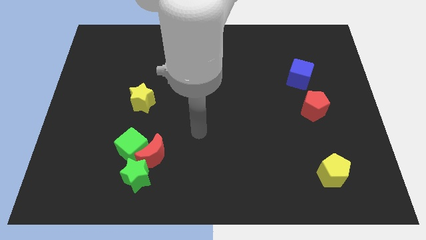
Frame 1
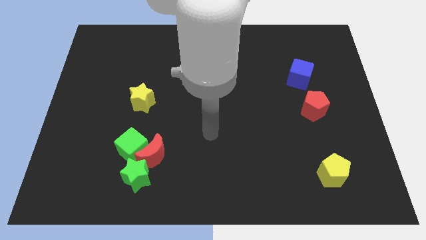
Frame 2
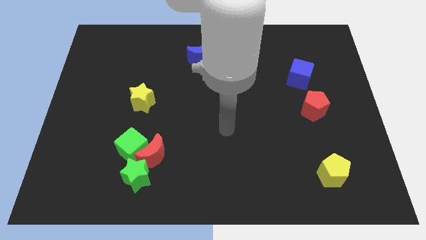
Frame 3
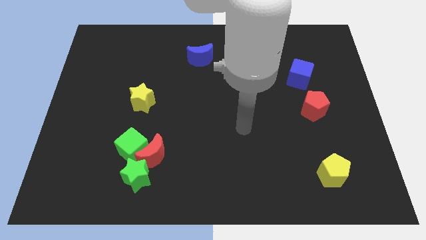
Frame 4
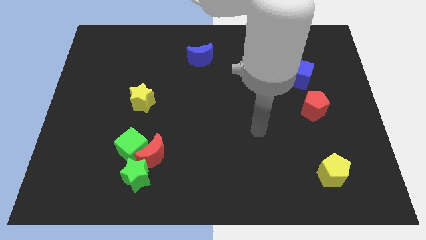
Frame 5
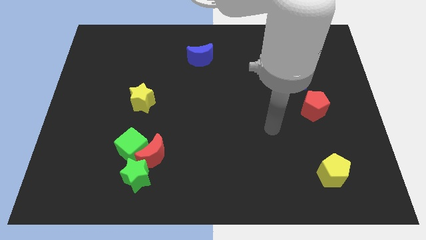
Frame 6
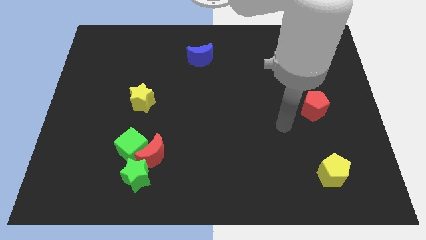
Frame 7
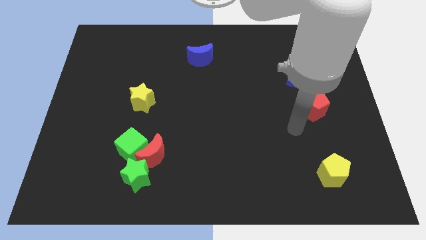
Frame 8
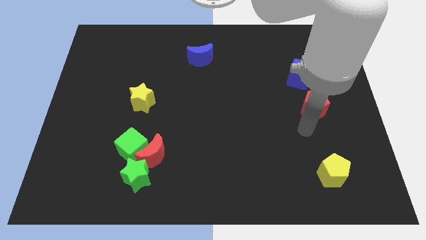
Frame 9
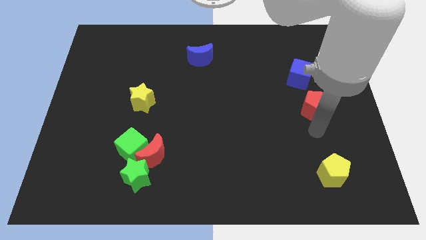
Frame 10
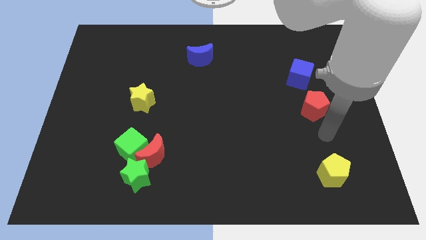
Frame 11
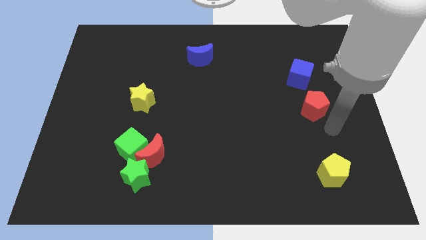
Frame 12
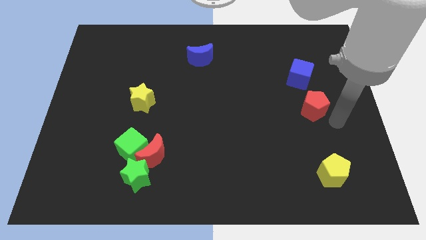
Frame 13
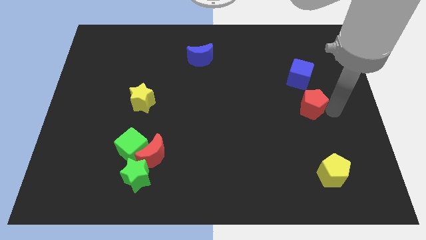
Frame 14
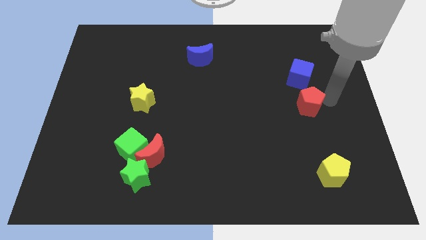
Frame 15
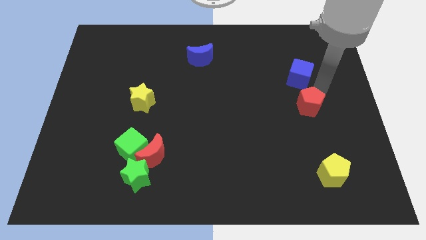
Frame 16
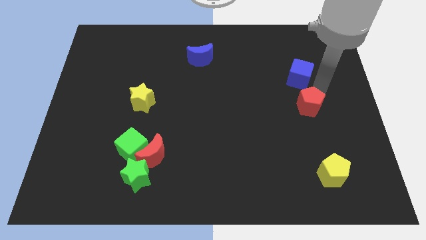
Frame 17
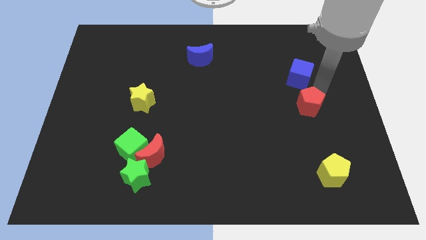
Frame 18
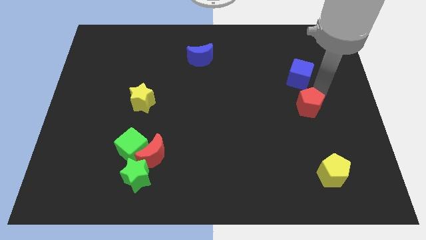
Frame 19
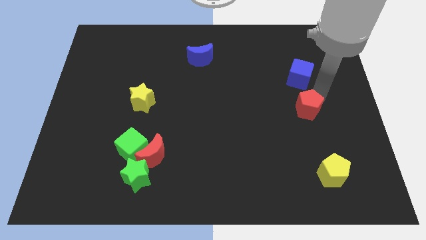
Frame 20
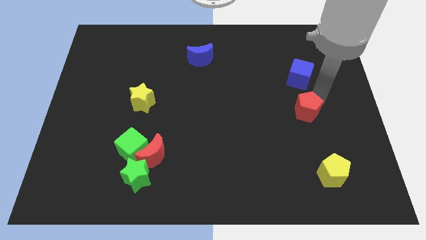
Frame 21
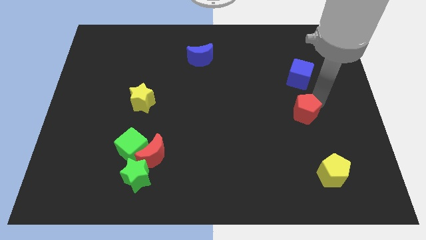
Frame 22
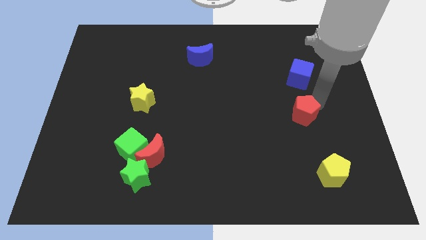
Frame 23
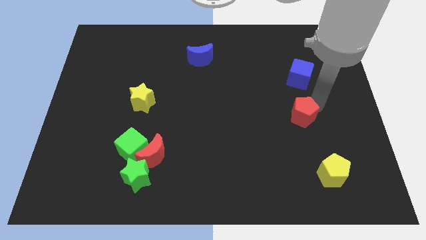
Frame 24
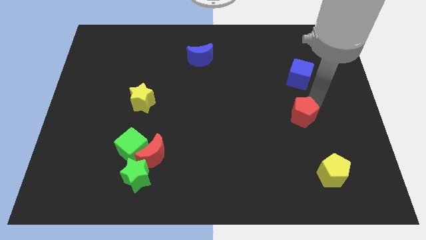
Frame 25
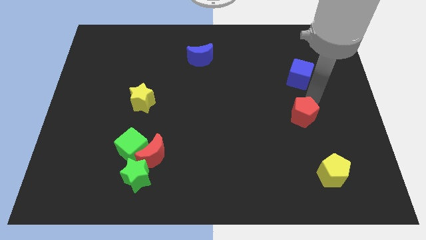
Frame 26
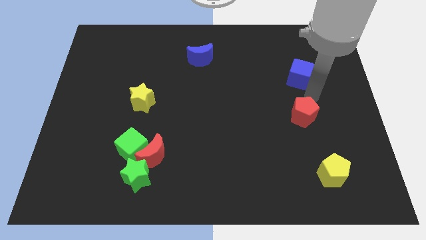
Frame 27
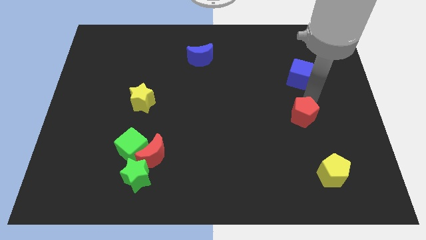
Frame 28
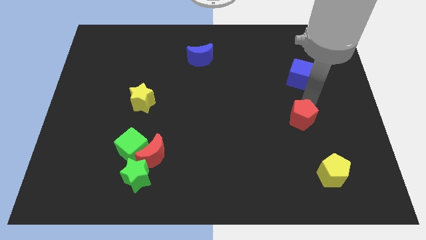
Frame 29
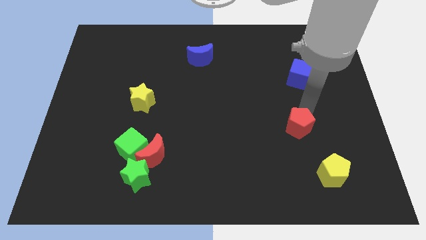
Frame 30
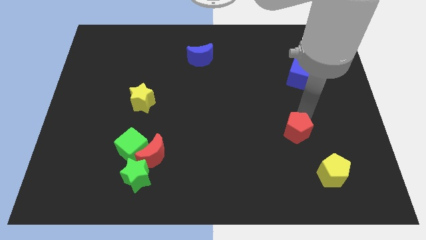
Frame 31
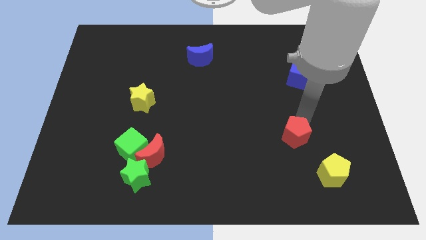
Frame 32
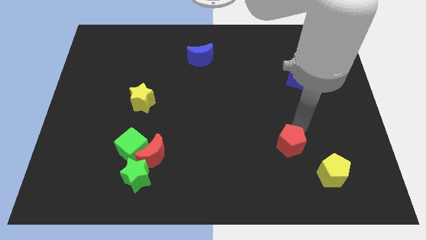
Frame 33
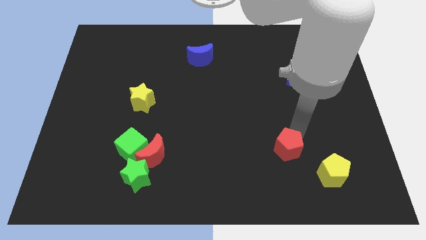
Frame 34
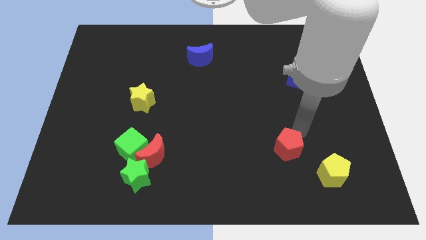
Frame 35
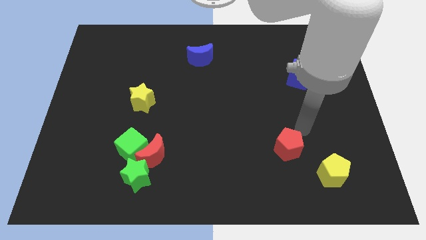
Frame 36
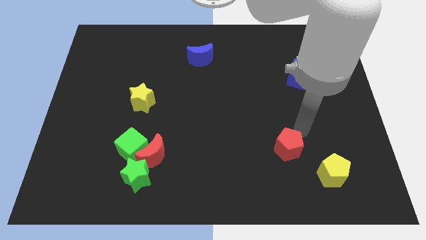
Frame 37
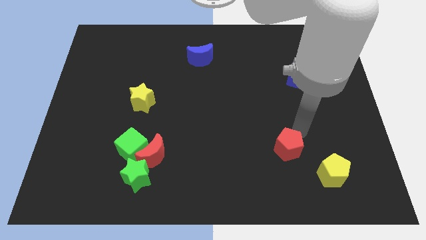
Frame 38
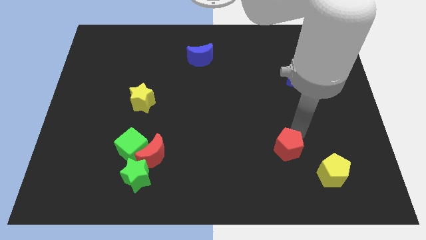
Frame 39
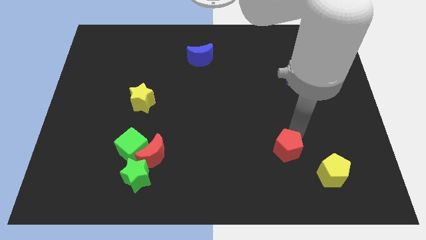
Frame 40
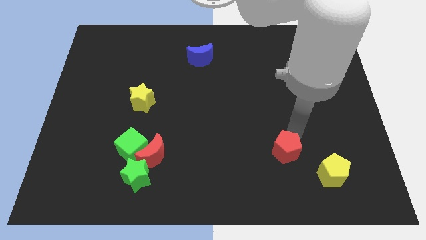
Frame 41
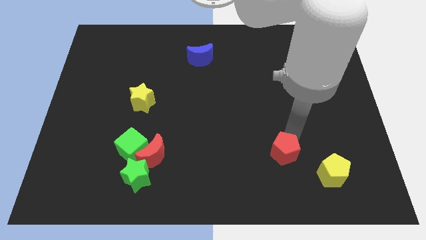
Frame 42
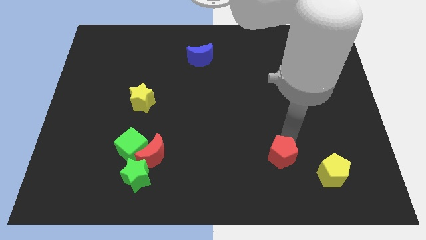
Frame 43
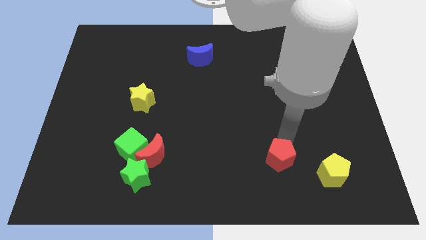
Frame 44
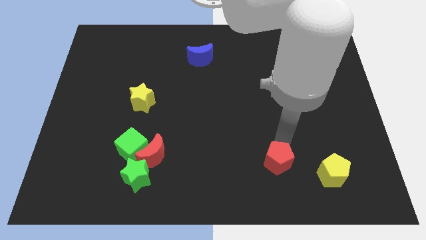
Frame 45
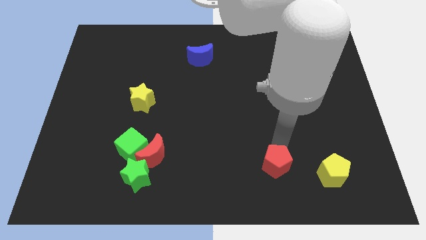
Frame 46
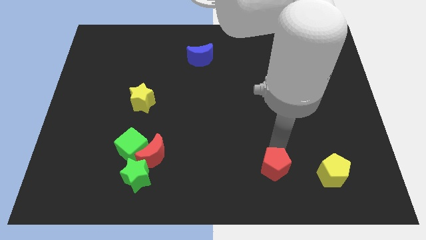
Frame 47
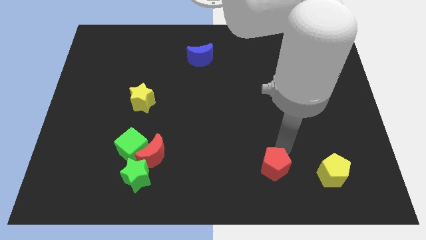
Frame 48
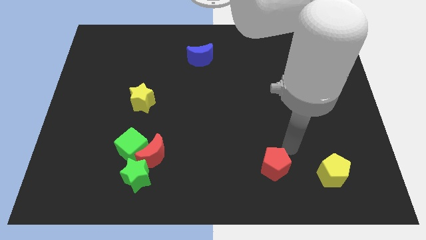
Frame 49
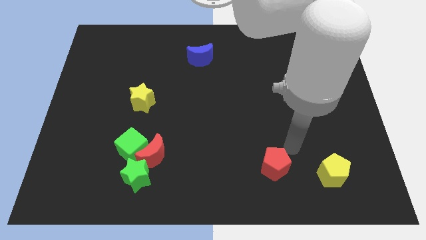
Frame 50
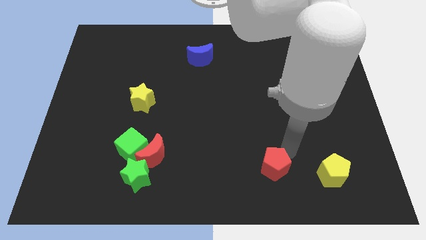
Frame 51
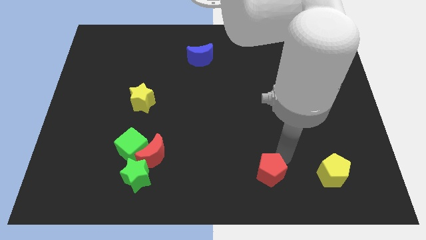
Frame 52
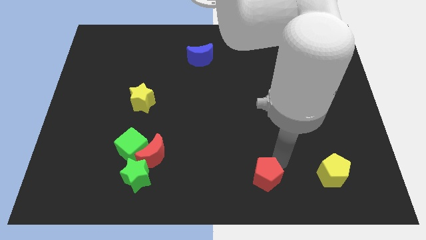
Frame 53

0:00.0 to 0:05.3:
slide the red pentagon to the bottom

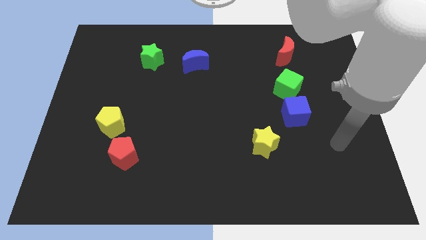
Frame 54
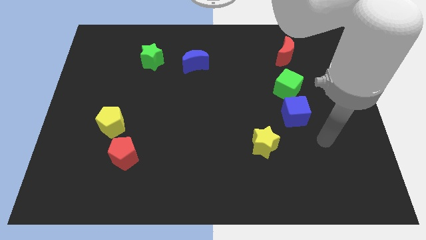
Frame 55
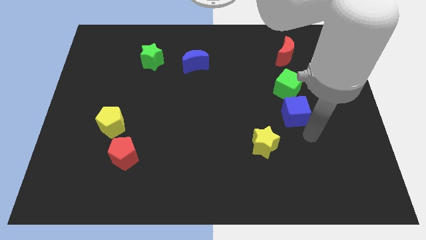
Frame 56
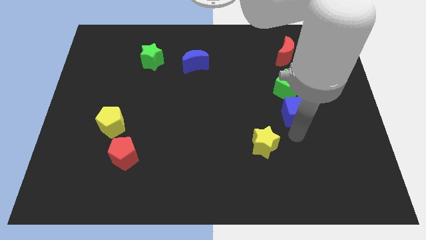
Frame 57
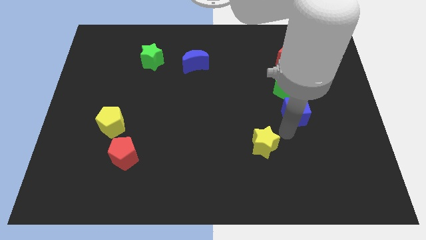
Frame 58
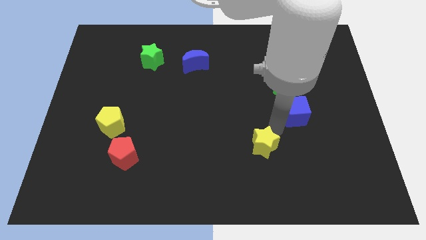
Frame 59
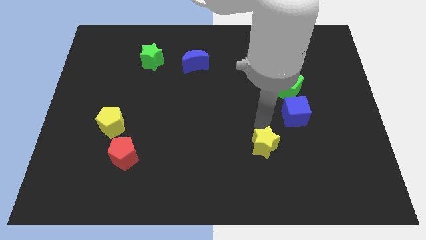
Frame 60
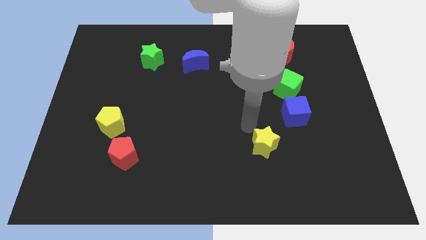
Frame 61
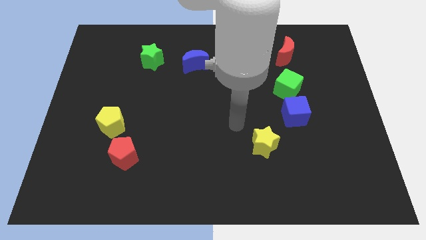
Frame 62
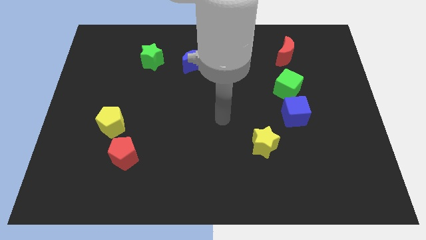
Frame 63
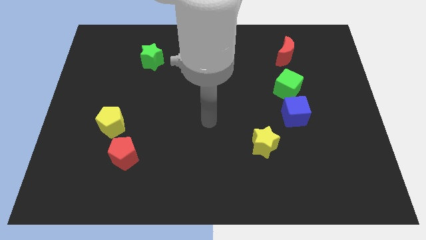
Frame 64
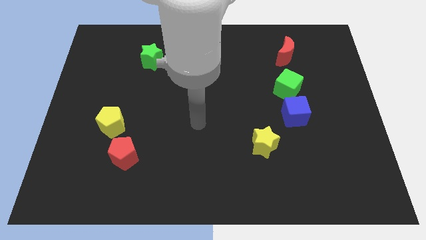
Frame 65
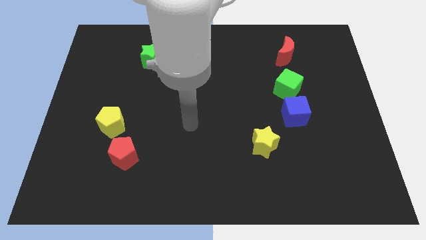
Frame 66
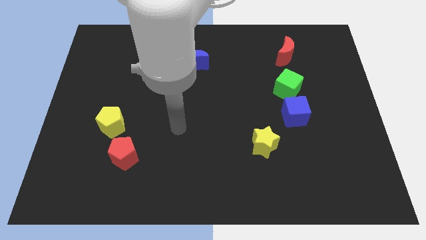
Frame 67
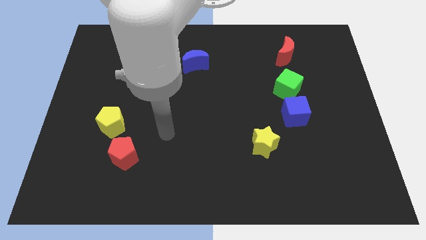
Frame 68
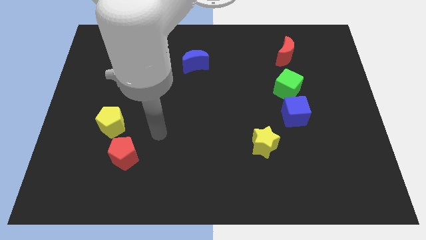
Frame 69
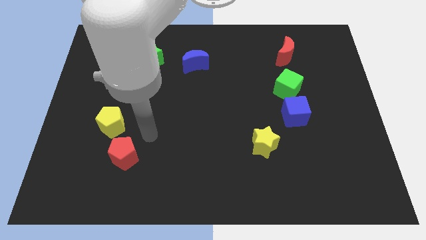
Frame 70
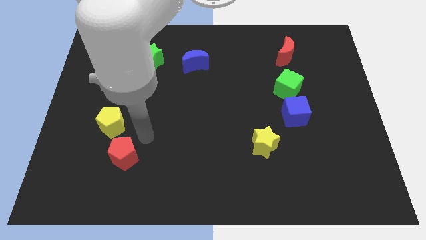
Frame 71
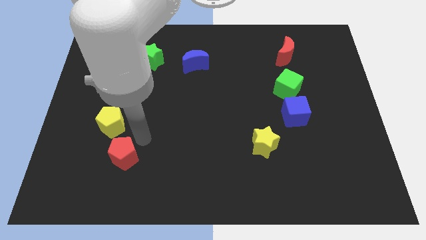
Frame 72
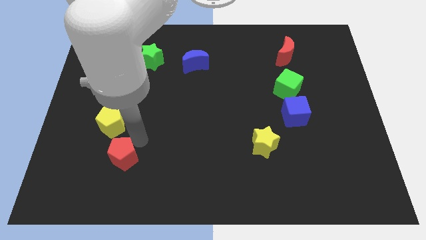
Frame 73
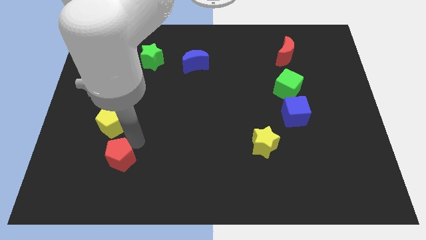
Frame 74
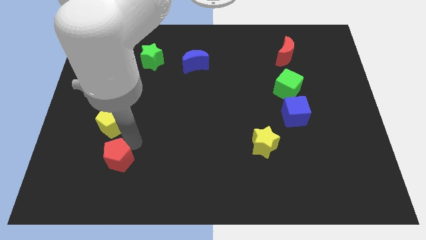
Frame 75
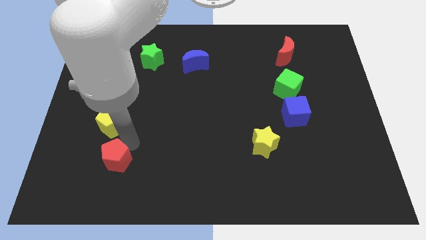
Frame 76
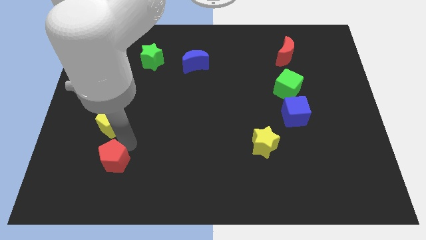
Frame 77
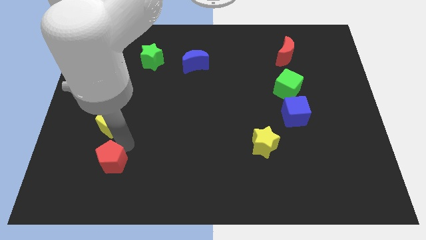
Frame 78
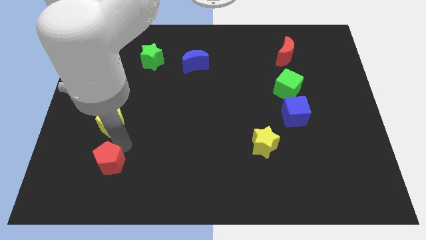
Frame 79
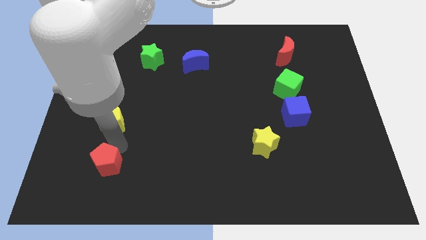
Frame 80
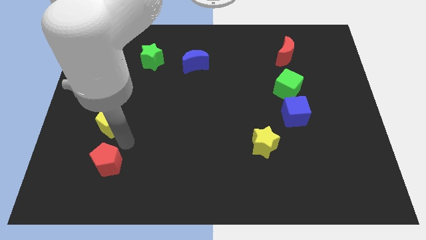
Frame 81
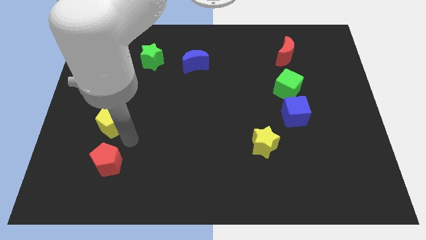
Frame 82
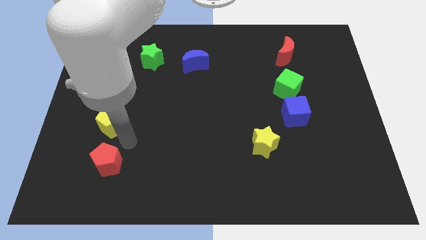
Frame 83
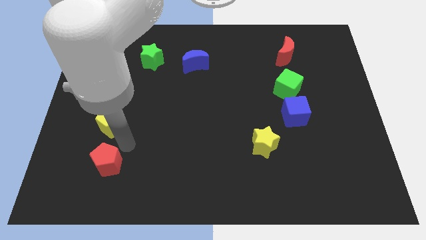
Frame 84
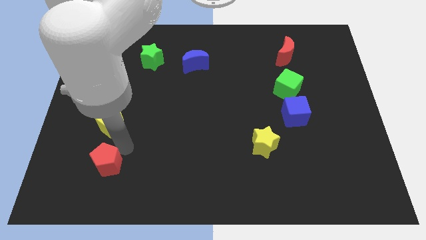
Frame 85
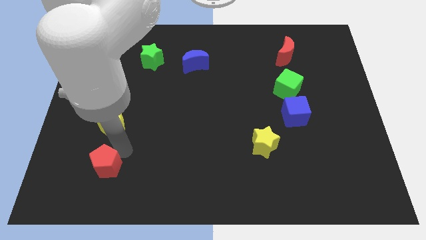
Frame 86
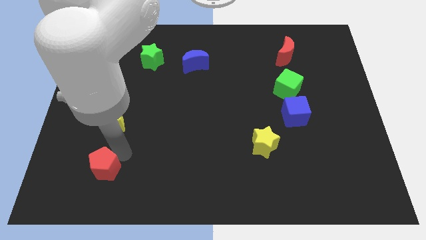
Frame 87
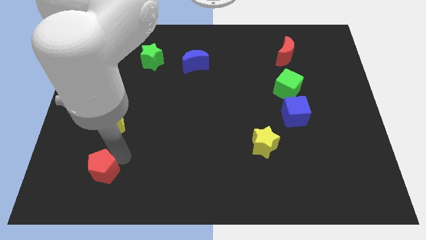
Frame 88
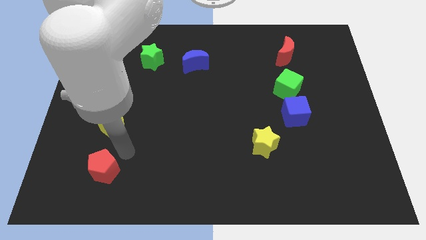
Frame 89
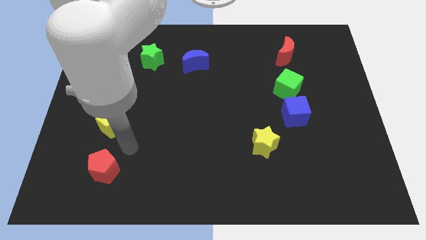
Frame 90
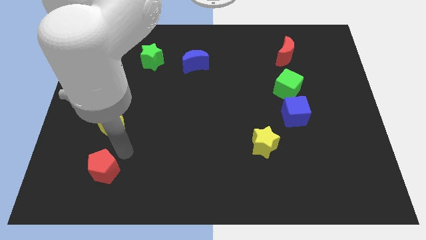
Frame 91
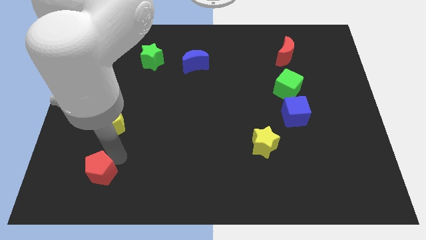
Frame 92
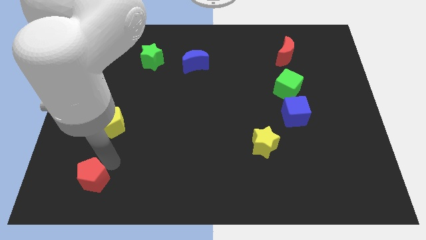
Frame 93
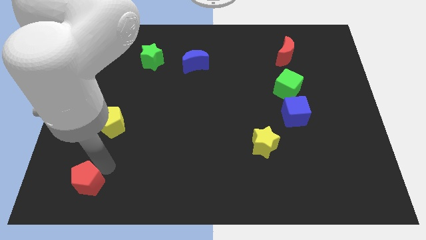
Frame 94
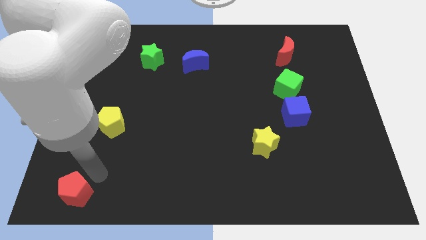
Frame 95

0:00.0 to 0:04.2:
push the red pentagon to the bottom left of the board
